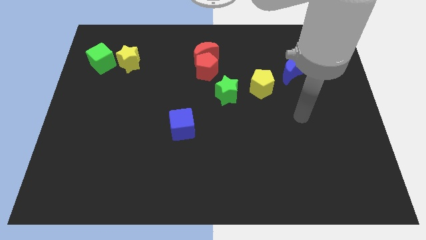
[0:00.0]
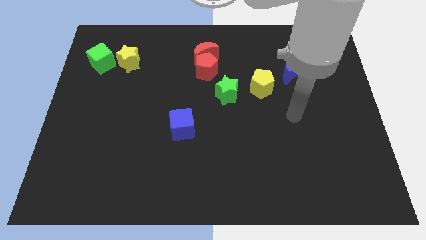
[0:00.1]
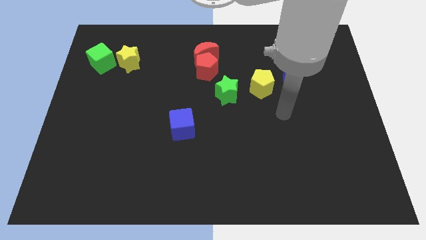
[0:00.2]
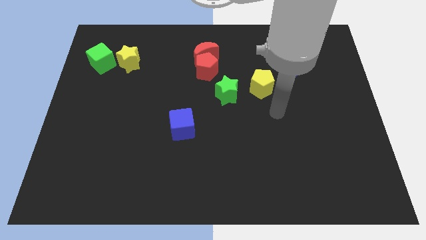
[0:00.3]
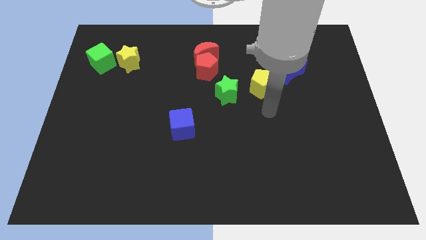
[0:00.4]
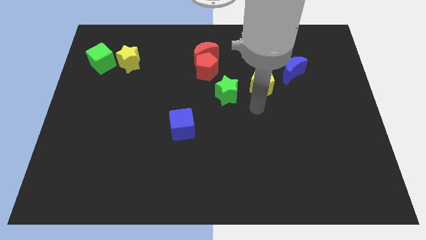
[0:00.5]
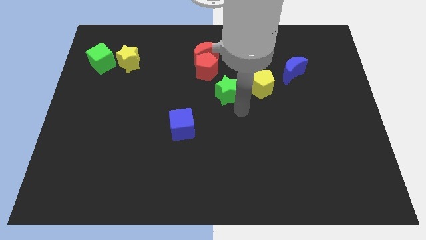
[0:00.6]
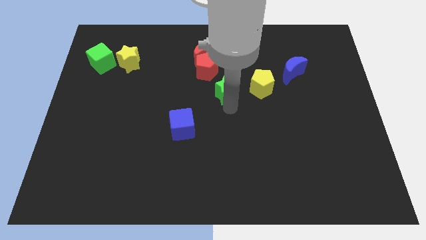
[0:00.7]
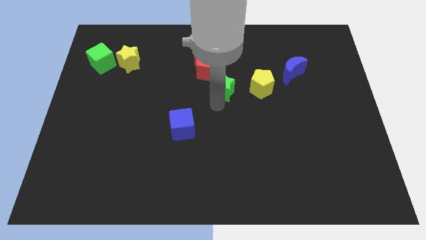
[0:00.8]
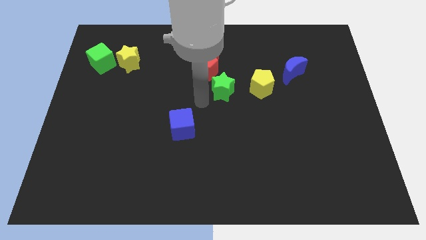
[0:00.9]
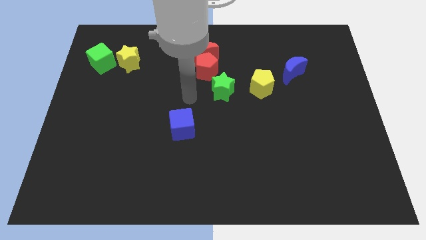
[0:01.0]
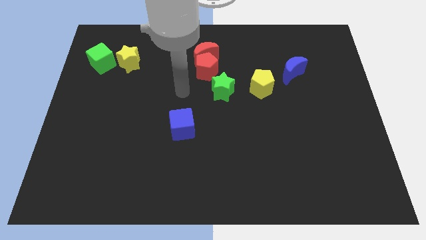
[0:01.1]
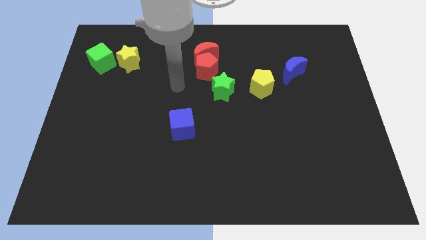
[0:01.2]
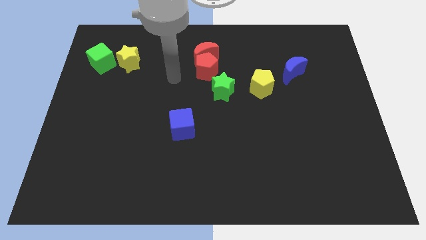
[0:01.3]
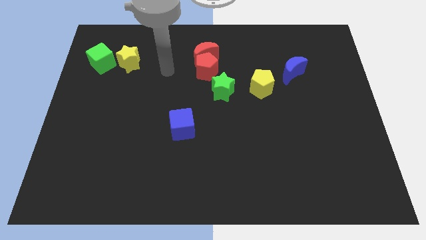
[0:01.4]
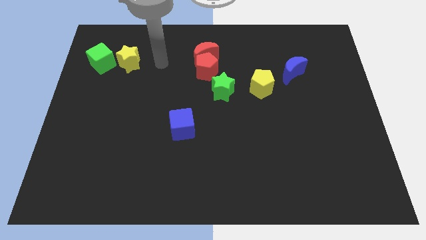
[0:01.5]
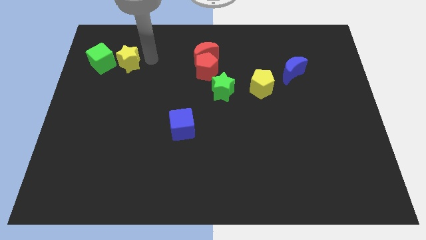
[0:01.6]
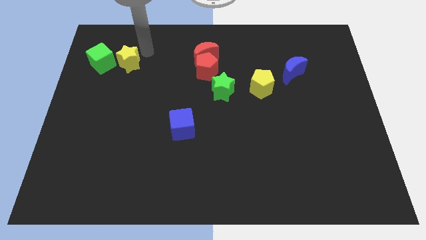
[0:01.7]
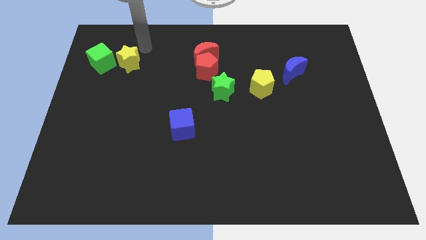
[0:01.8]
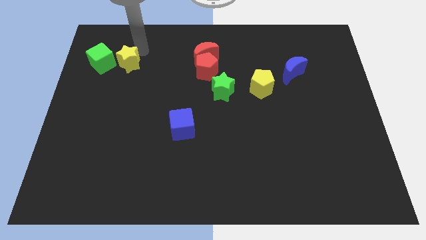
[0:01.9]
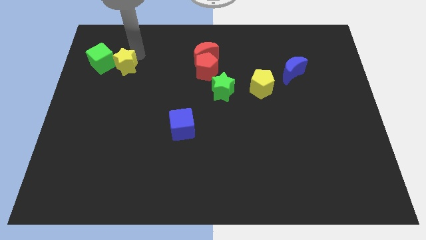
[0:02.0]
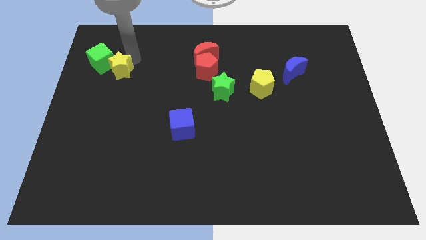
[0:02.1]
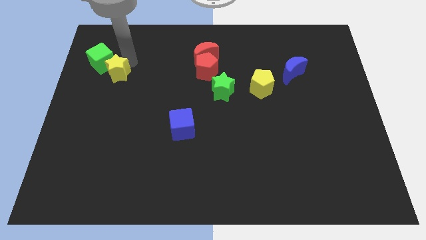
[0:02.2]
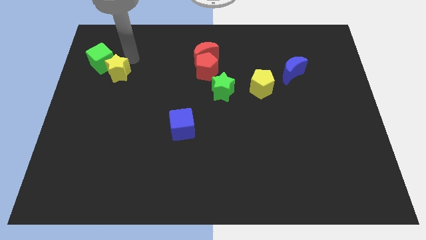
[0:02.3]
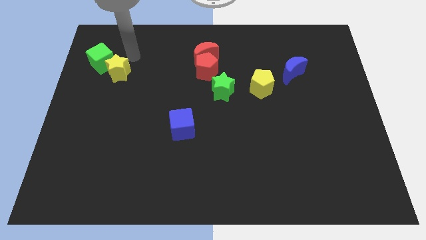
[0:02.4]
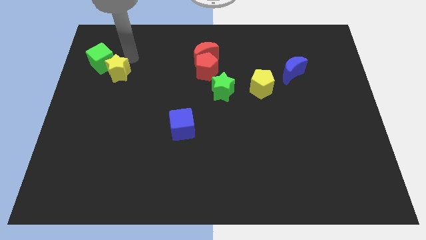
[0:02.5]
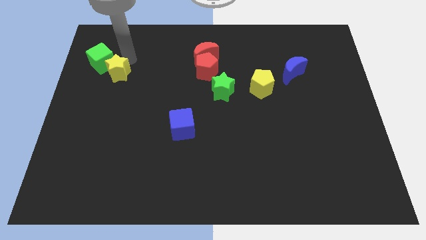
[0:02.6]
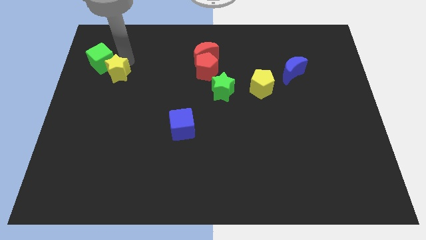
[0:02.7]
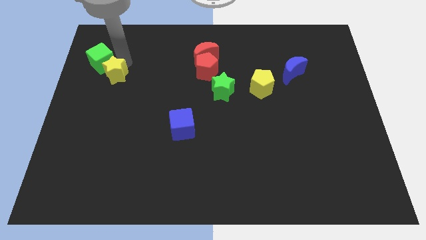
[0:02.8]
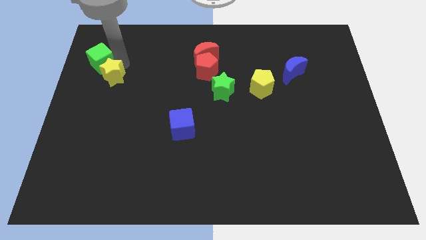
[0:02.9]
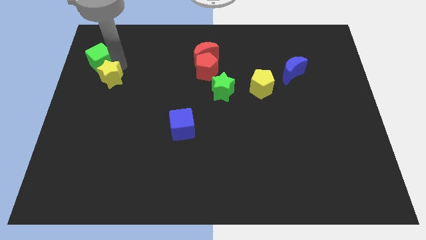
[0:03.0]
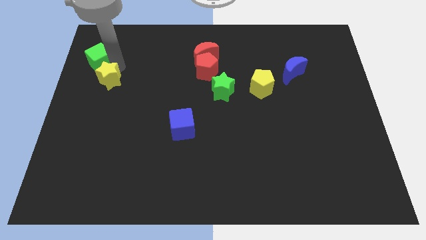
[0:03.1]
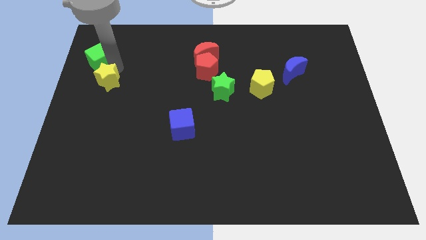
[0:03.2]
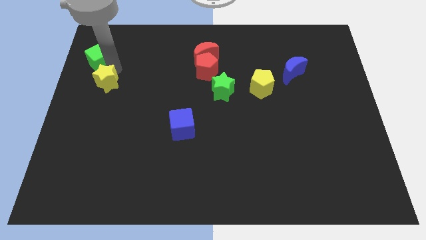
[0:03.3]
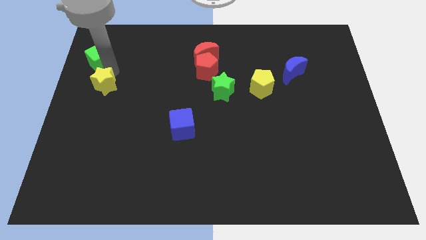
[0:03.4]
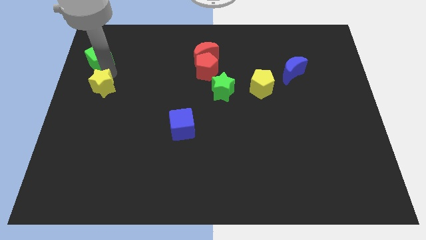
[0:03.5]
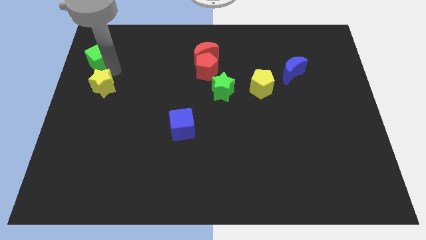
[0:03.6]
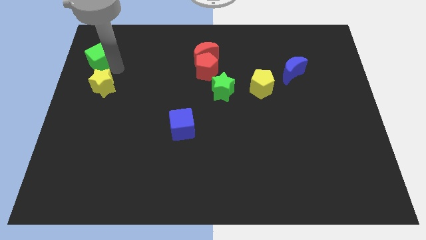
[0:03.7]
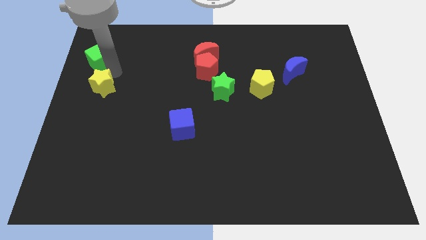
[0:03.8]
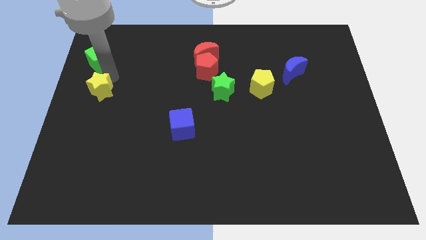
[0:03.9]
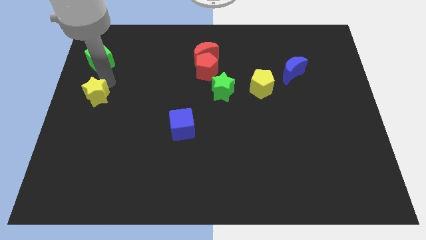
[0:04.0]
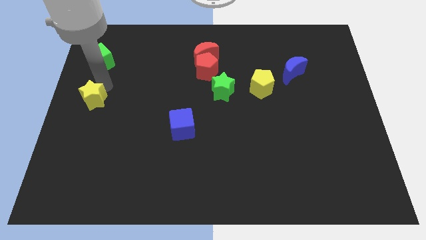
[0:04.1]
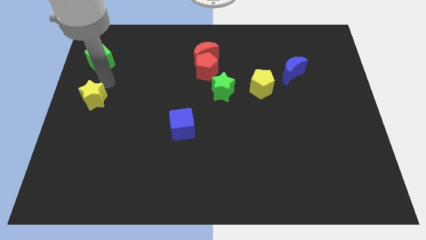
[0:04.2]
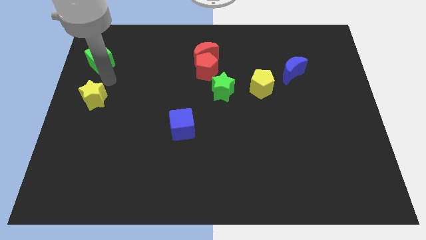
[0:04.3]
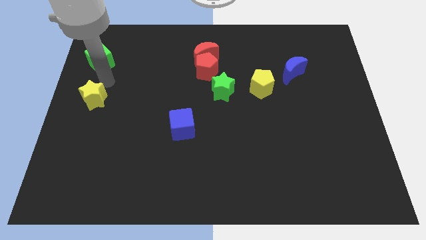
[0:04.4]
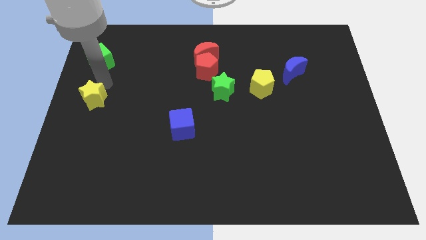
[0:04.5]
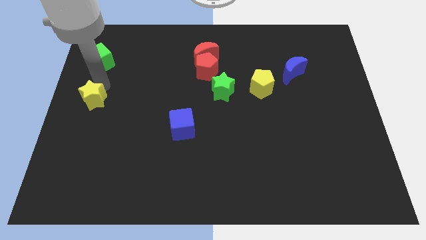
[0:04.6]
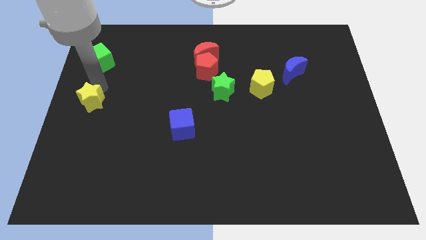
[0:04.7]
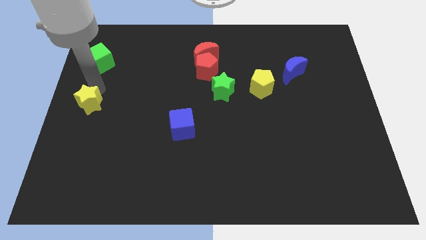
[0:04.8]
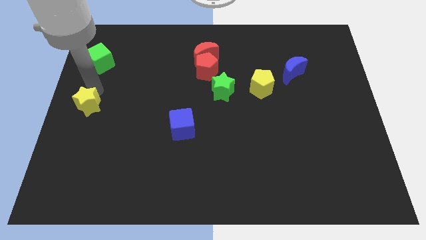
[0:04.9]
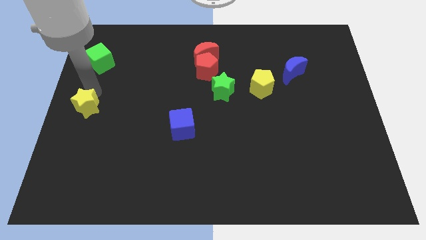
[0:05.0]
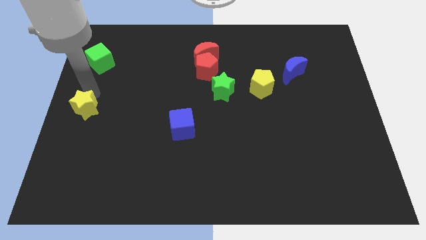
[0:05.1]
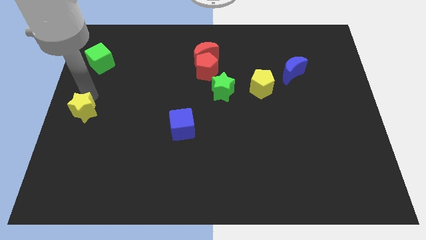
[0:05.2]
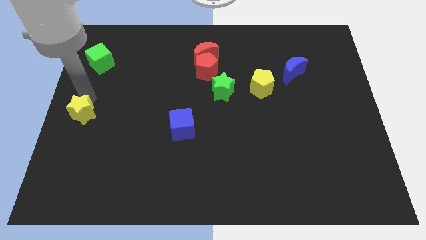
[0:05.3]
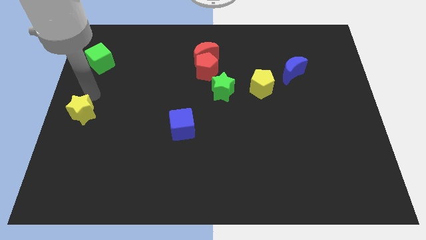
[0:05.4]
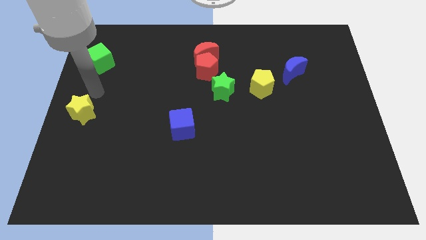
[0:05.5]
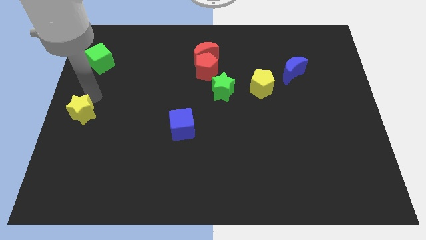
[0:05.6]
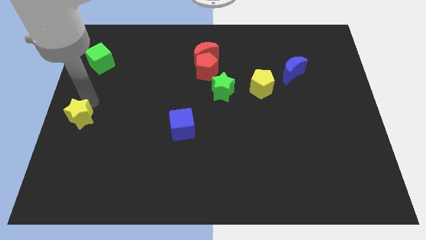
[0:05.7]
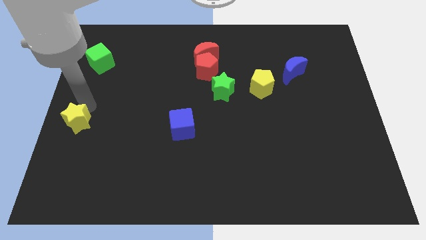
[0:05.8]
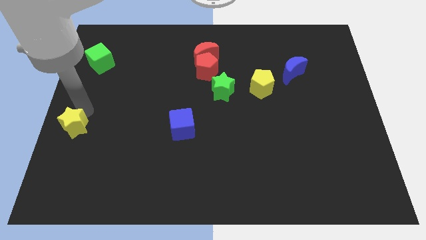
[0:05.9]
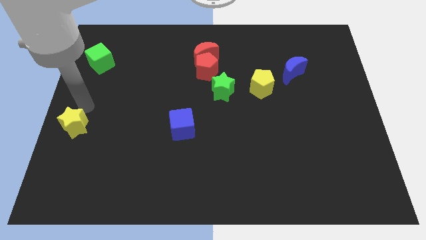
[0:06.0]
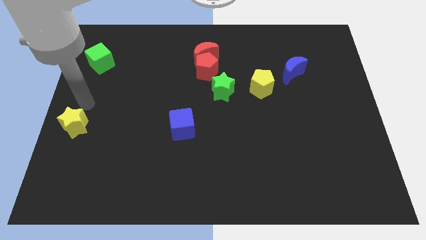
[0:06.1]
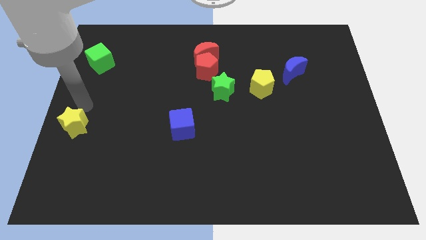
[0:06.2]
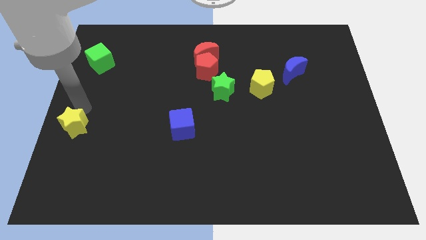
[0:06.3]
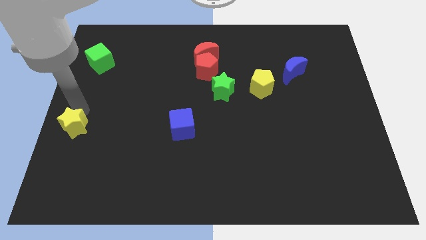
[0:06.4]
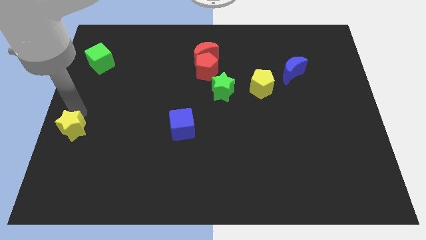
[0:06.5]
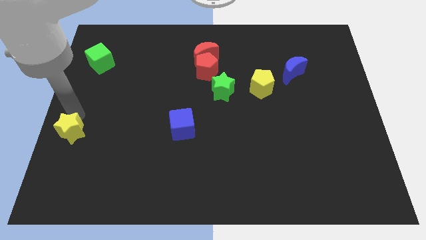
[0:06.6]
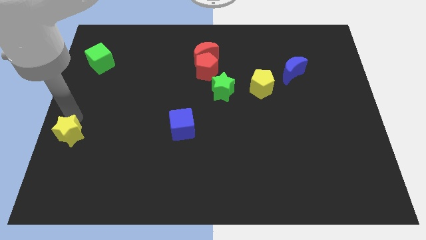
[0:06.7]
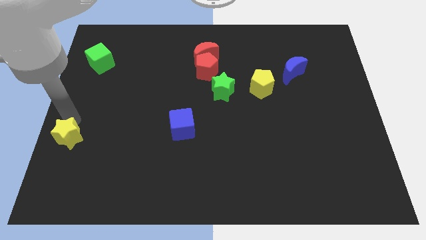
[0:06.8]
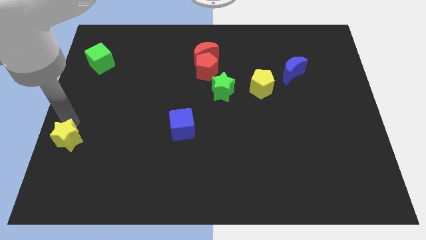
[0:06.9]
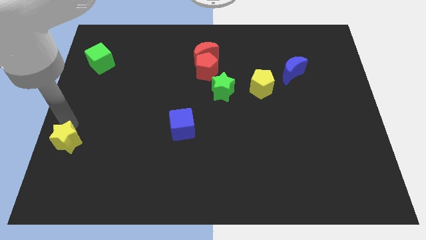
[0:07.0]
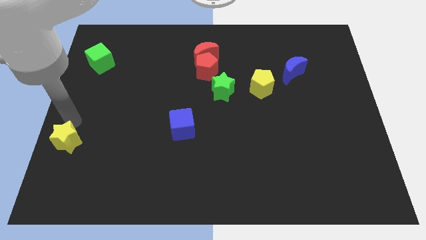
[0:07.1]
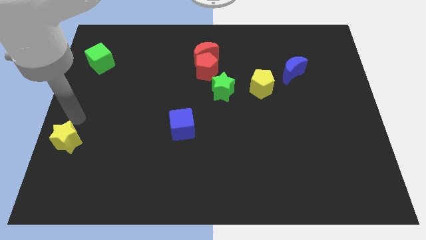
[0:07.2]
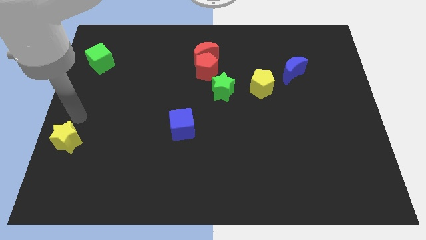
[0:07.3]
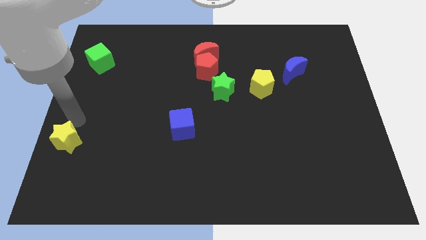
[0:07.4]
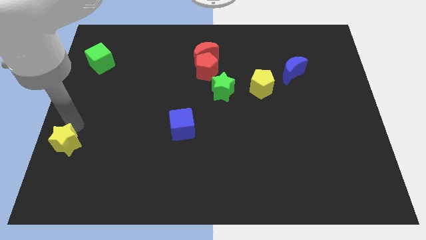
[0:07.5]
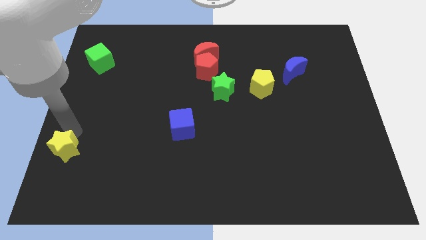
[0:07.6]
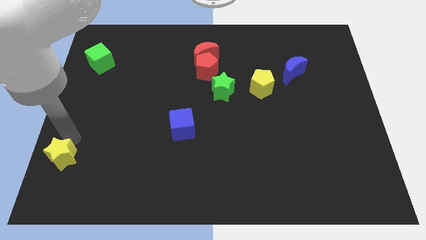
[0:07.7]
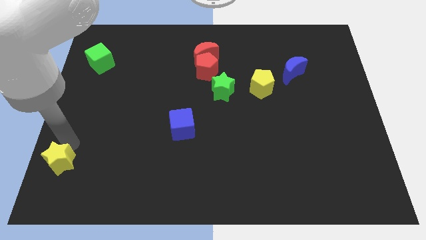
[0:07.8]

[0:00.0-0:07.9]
put the yellow star to the bottom left corner

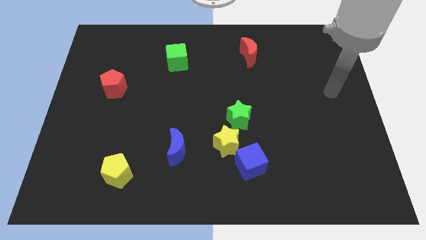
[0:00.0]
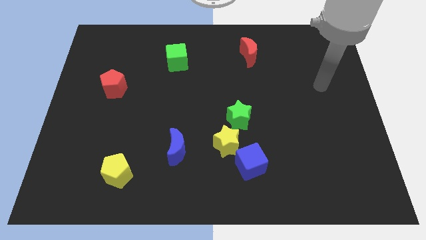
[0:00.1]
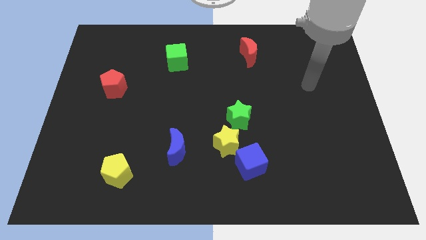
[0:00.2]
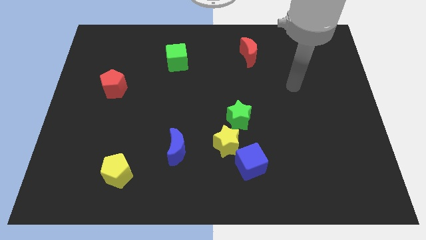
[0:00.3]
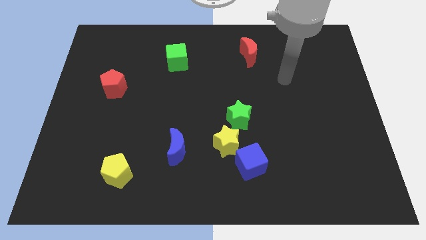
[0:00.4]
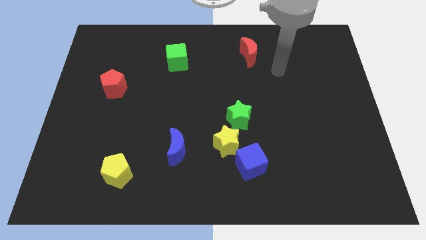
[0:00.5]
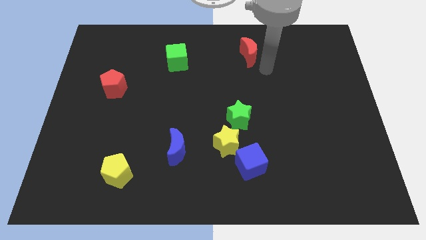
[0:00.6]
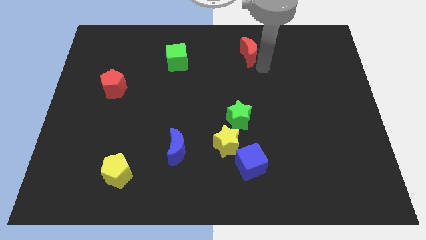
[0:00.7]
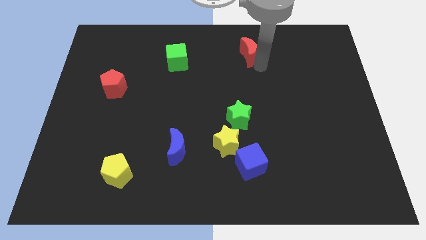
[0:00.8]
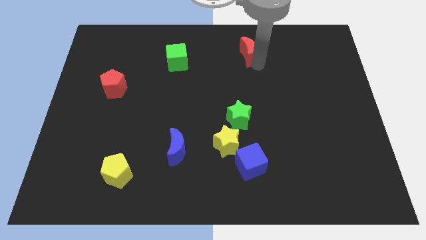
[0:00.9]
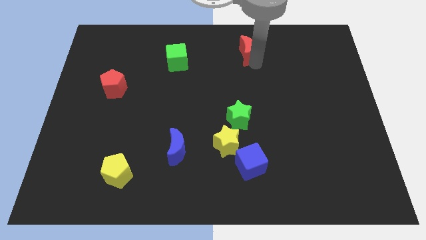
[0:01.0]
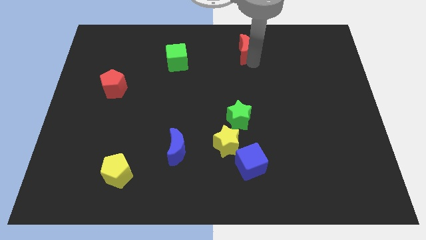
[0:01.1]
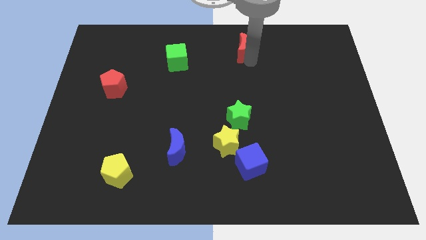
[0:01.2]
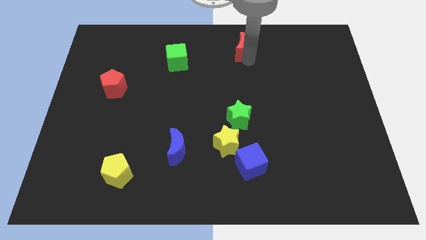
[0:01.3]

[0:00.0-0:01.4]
slide the red moon to the top side
